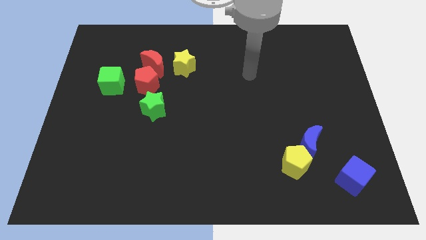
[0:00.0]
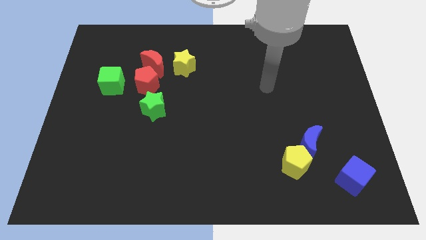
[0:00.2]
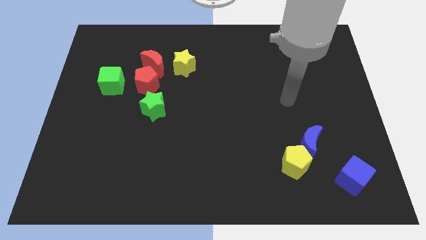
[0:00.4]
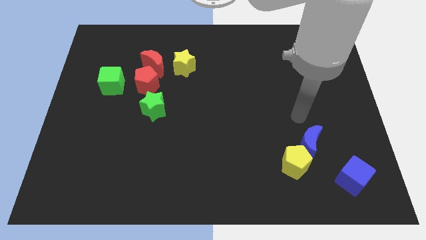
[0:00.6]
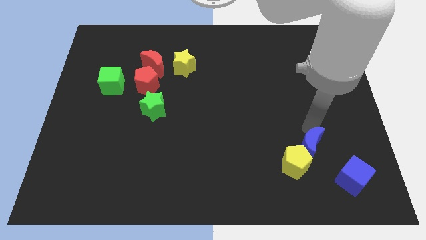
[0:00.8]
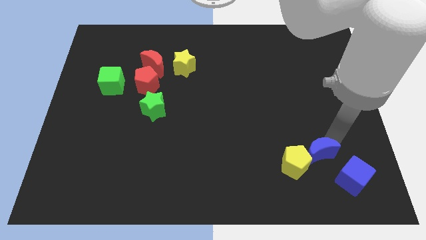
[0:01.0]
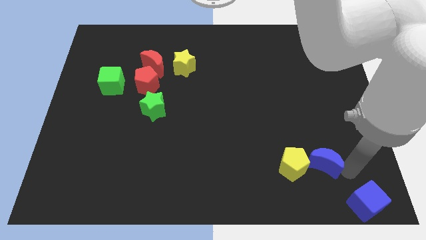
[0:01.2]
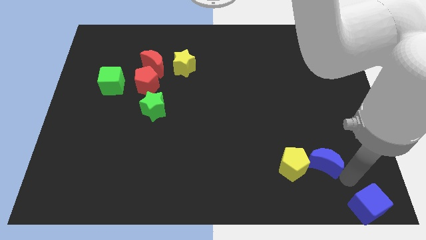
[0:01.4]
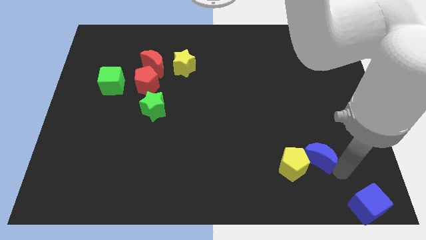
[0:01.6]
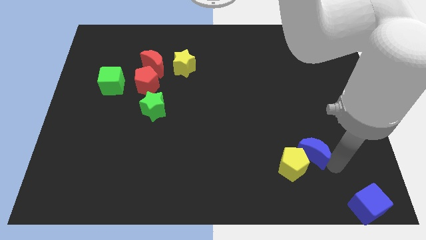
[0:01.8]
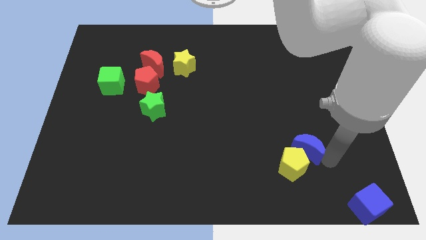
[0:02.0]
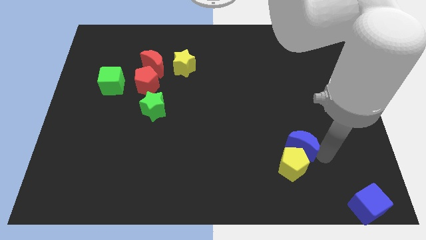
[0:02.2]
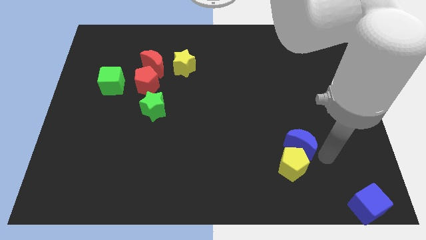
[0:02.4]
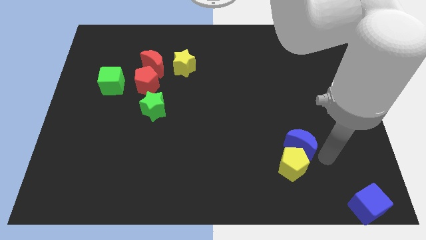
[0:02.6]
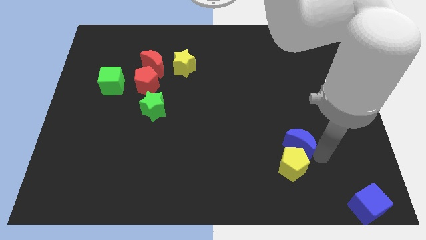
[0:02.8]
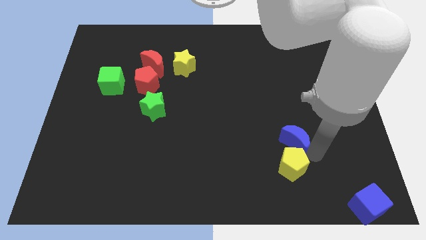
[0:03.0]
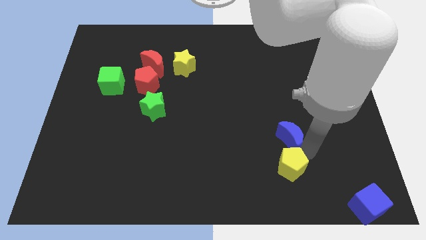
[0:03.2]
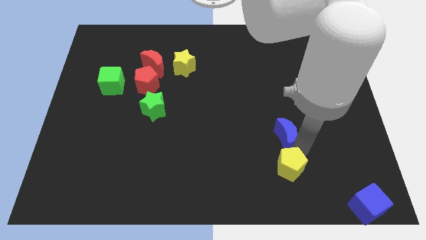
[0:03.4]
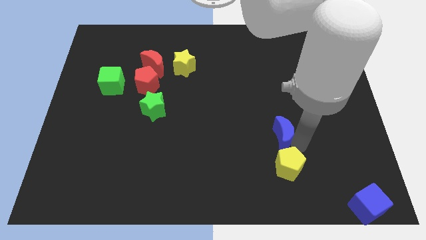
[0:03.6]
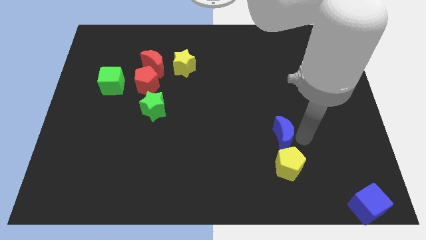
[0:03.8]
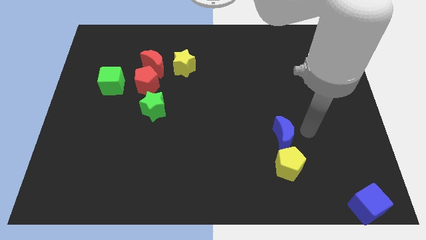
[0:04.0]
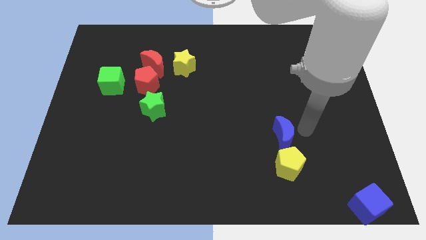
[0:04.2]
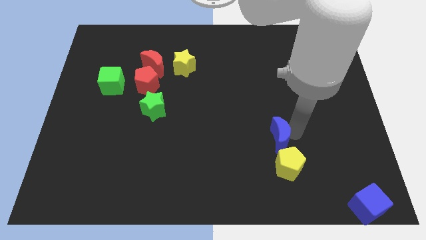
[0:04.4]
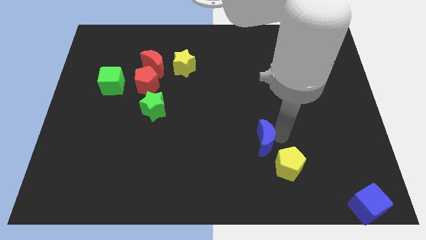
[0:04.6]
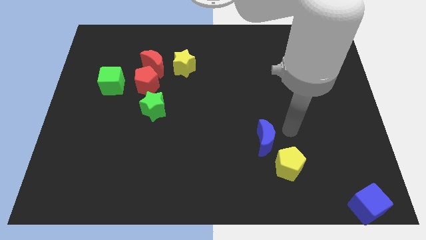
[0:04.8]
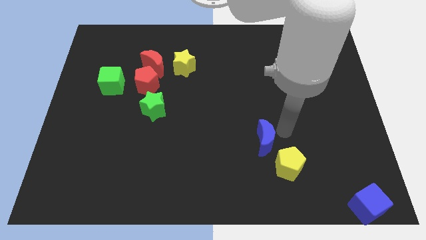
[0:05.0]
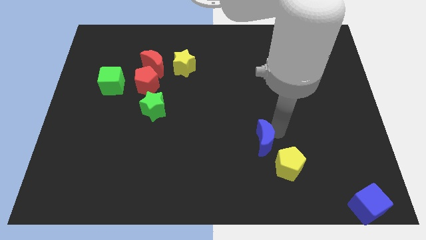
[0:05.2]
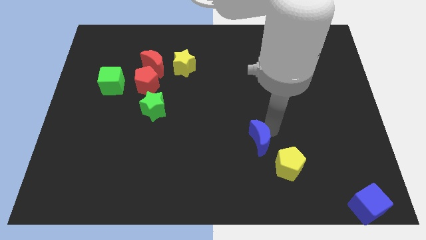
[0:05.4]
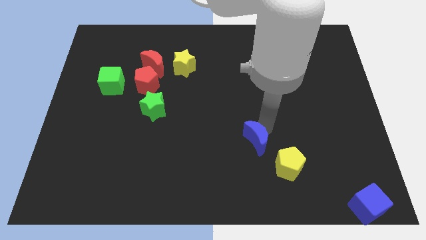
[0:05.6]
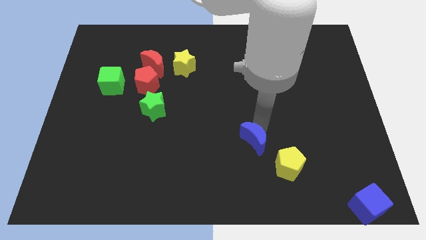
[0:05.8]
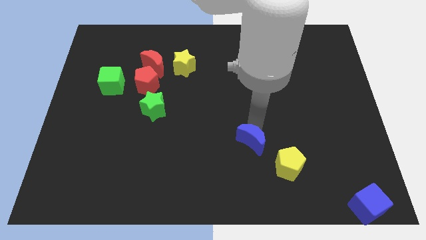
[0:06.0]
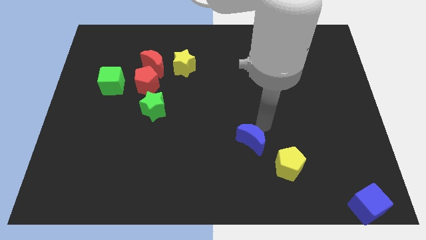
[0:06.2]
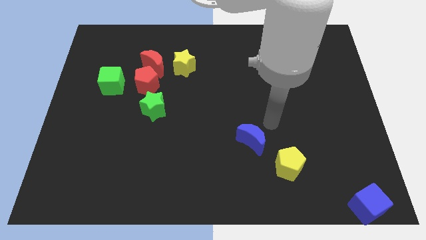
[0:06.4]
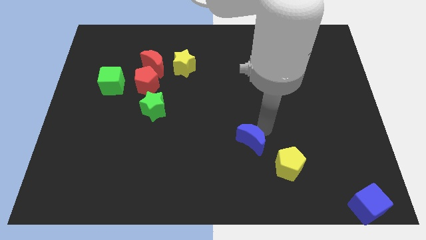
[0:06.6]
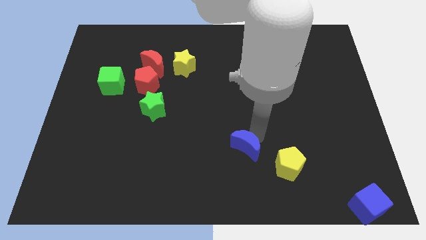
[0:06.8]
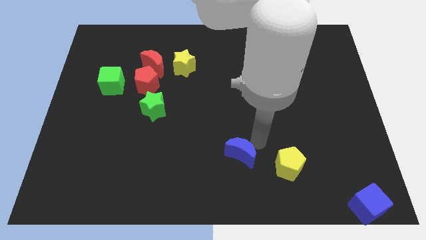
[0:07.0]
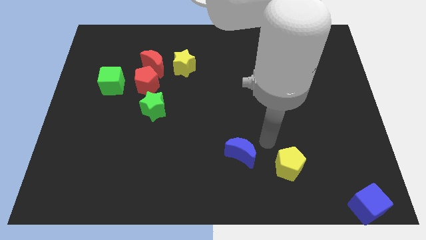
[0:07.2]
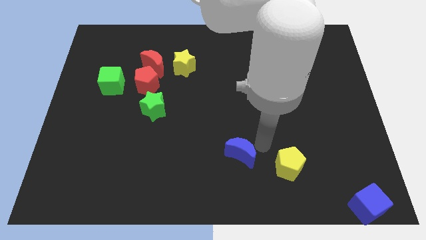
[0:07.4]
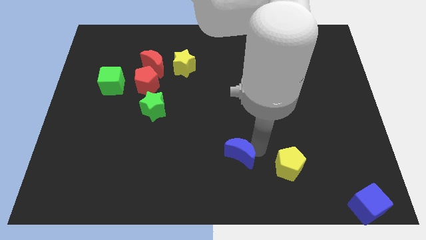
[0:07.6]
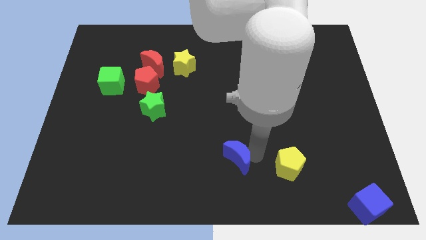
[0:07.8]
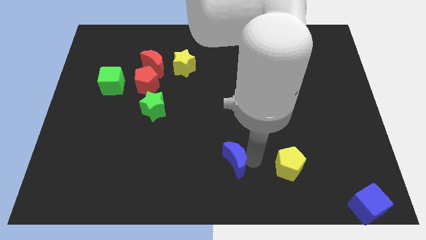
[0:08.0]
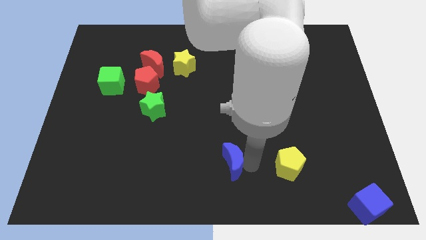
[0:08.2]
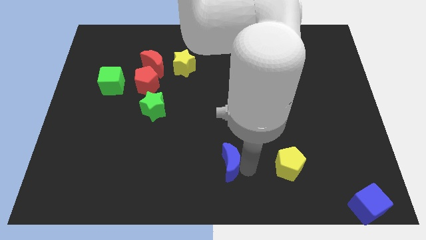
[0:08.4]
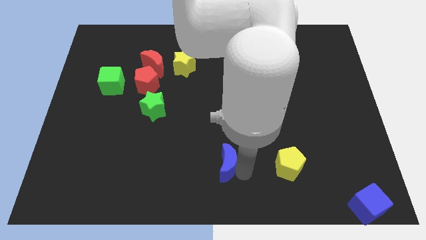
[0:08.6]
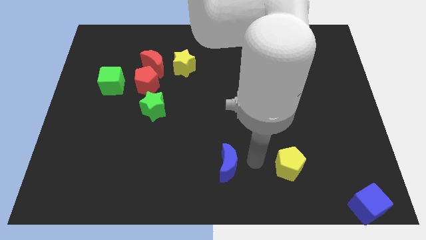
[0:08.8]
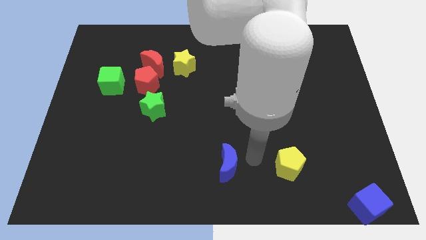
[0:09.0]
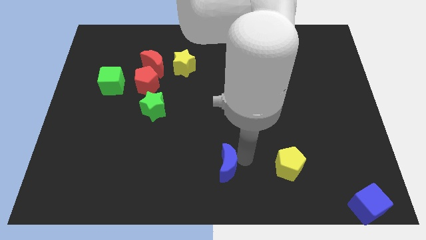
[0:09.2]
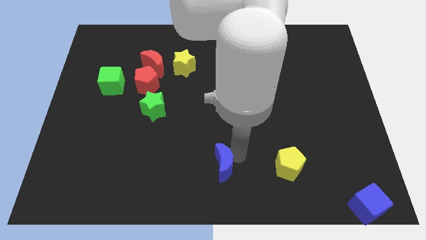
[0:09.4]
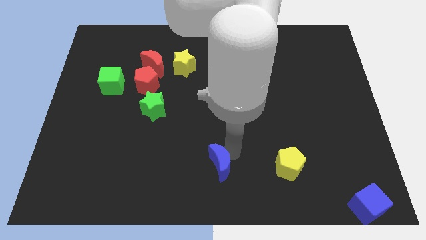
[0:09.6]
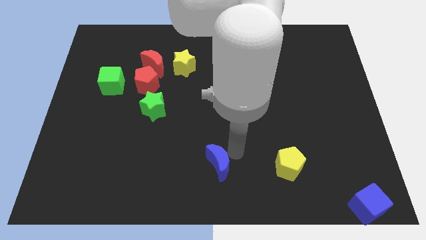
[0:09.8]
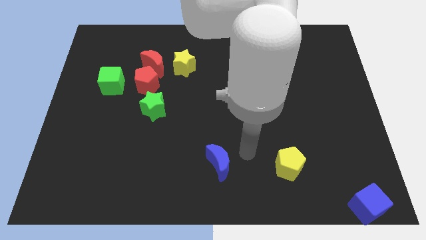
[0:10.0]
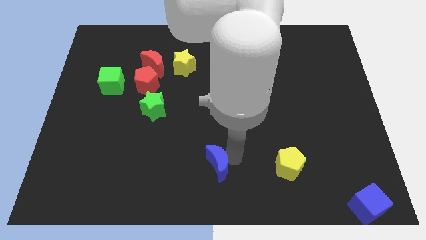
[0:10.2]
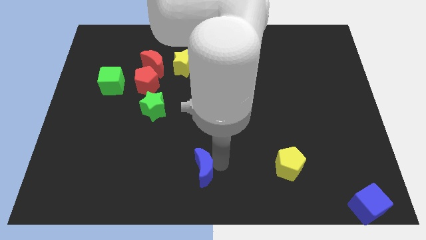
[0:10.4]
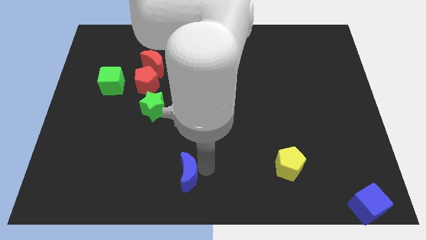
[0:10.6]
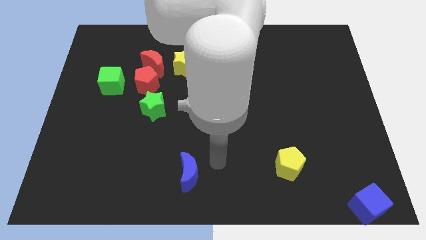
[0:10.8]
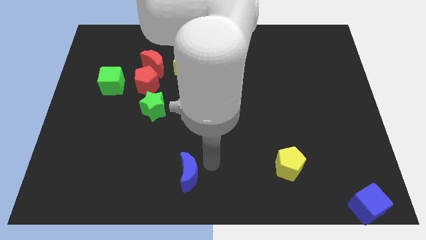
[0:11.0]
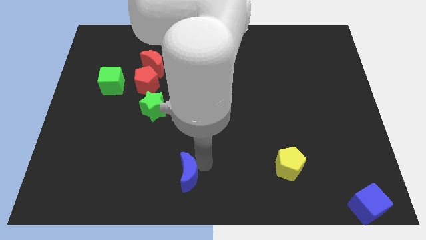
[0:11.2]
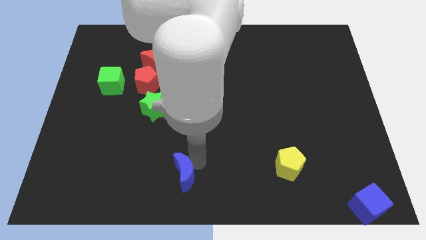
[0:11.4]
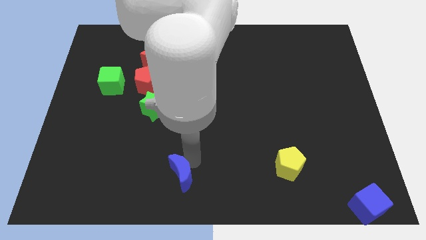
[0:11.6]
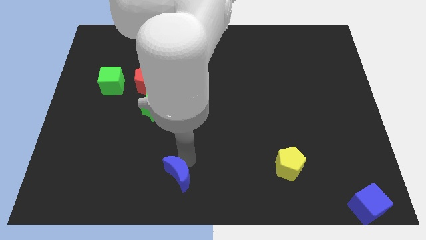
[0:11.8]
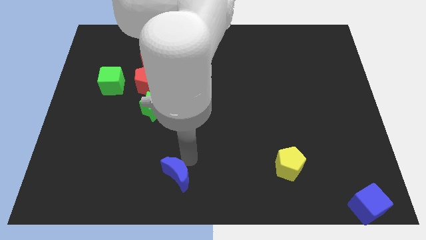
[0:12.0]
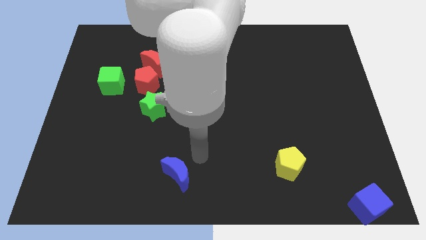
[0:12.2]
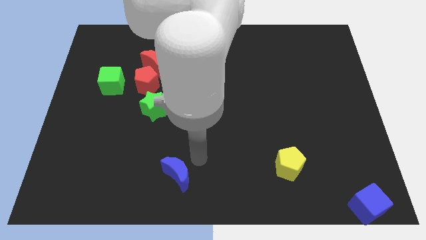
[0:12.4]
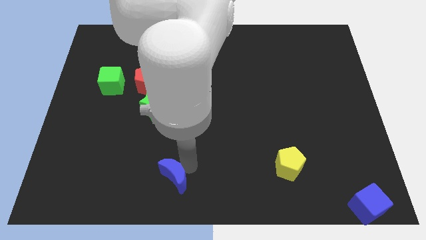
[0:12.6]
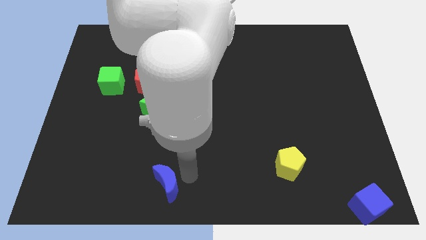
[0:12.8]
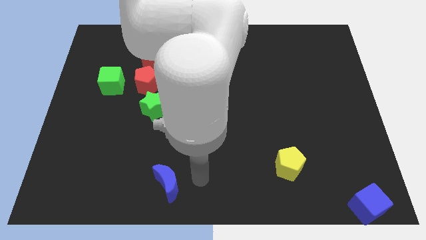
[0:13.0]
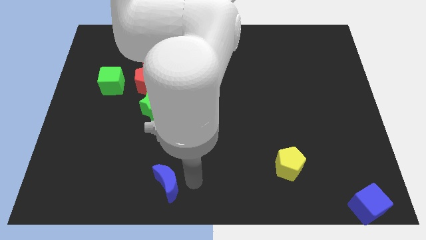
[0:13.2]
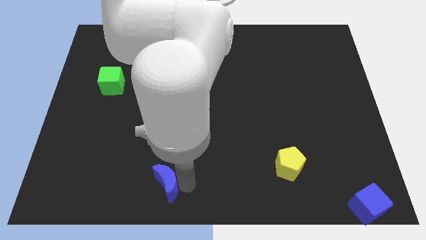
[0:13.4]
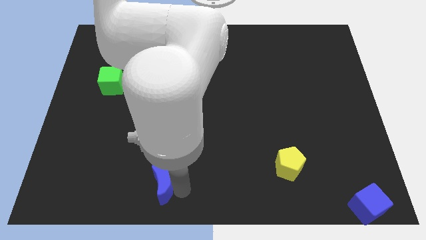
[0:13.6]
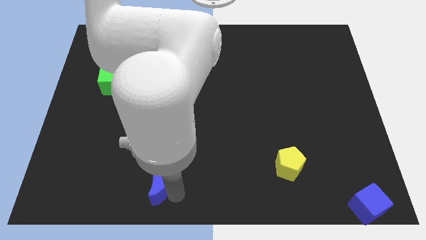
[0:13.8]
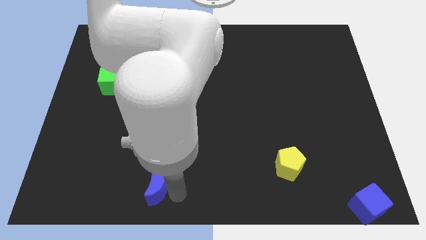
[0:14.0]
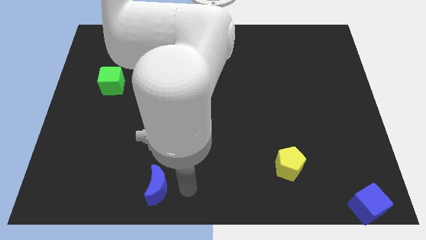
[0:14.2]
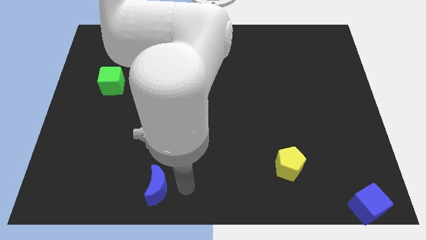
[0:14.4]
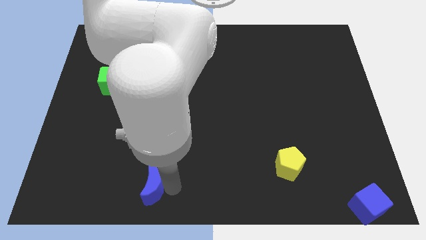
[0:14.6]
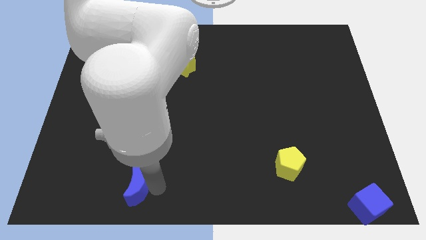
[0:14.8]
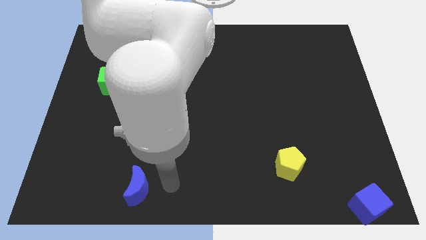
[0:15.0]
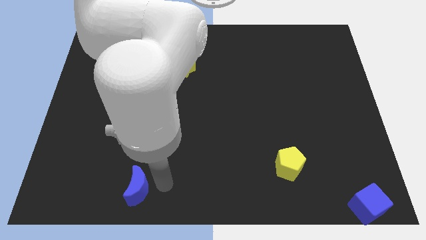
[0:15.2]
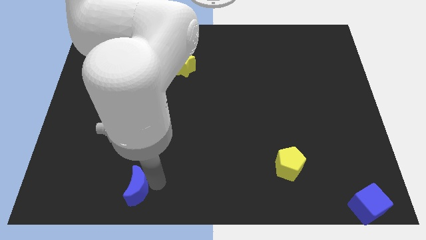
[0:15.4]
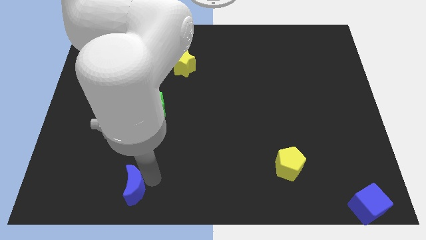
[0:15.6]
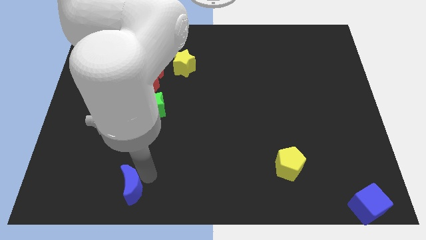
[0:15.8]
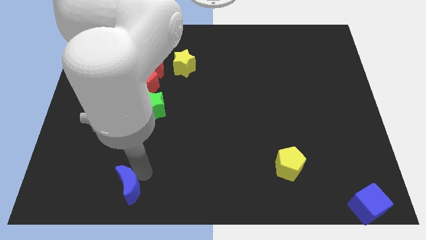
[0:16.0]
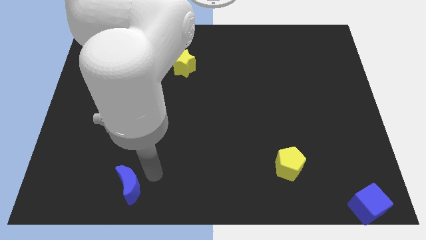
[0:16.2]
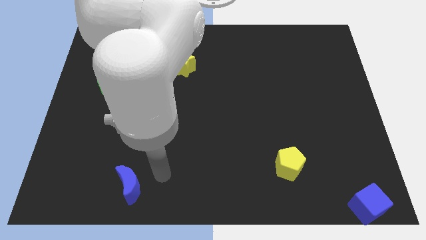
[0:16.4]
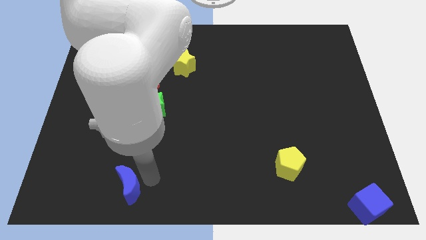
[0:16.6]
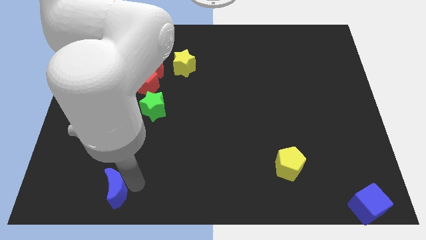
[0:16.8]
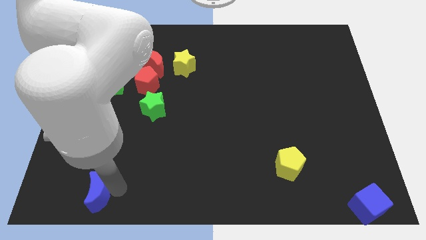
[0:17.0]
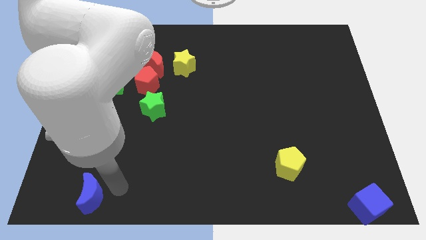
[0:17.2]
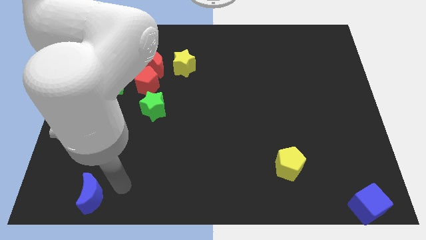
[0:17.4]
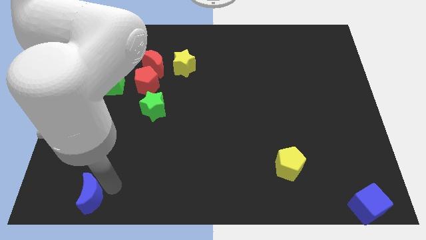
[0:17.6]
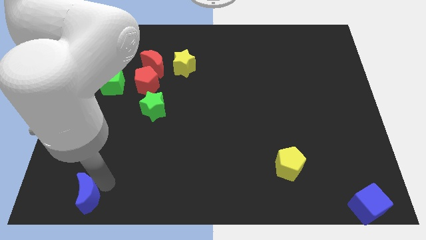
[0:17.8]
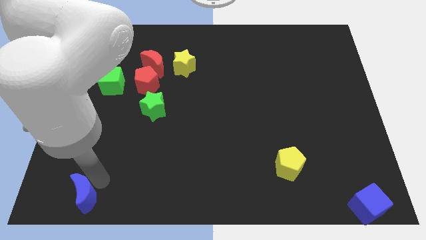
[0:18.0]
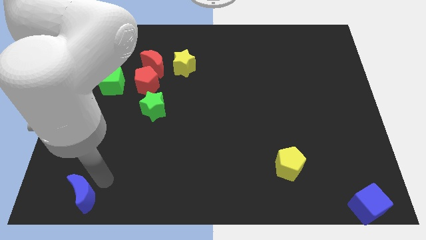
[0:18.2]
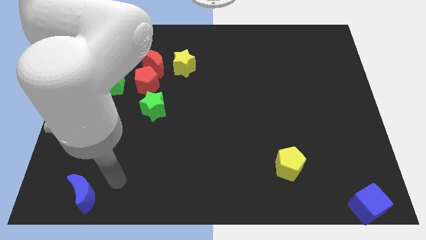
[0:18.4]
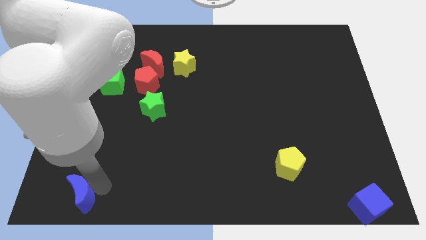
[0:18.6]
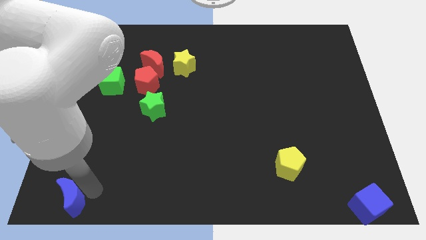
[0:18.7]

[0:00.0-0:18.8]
move the blue moon to the bottom left corner
